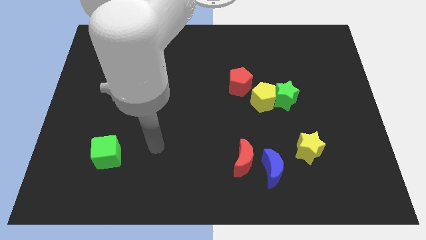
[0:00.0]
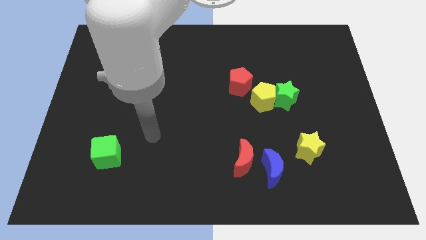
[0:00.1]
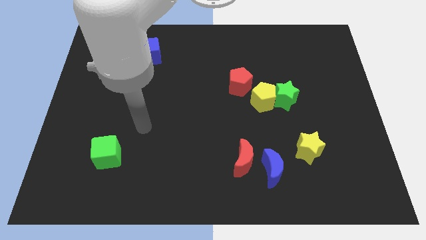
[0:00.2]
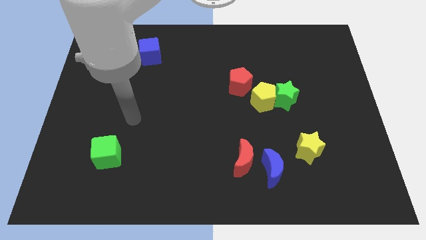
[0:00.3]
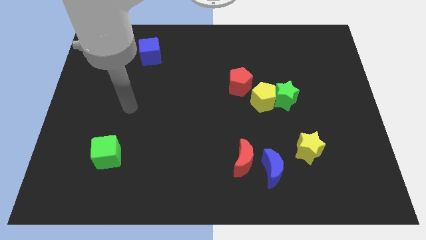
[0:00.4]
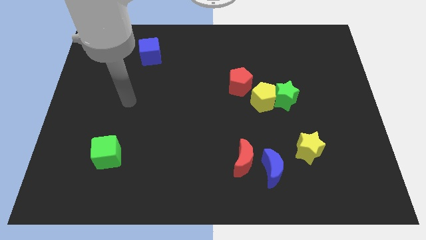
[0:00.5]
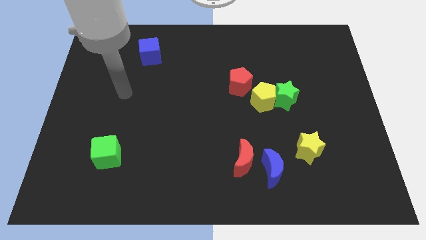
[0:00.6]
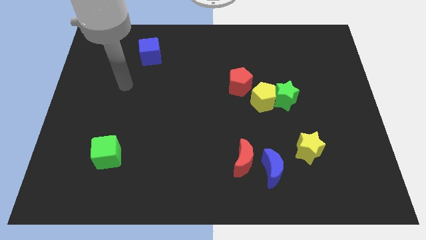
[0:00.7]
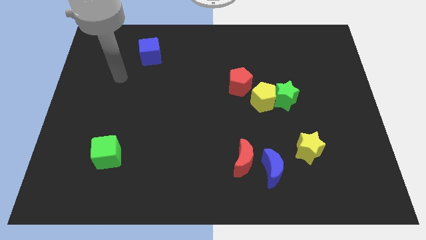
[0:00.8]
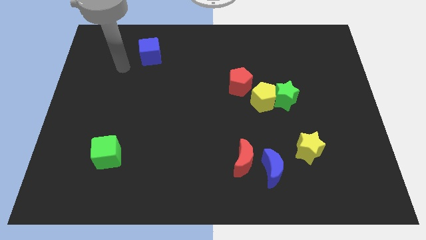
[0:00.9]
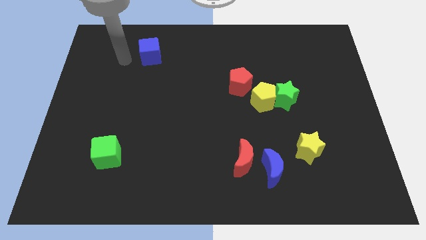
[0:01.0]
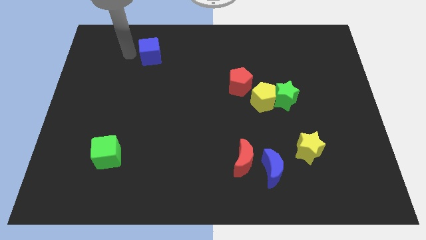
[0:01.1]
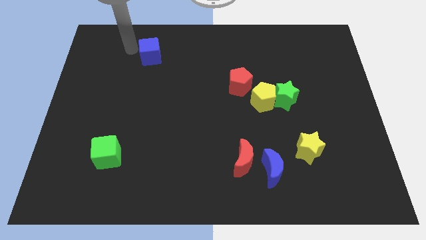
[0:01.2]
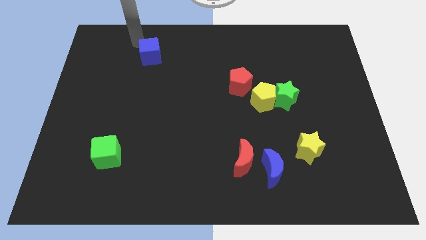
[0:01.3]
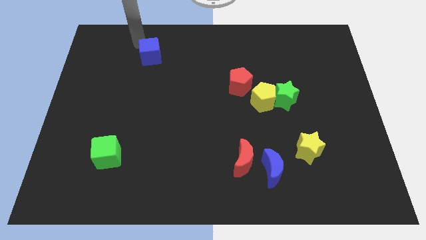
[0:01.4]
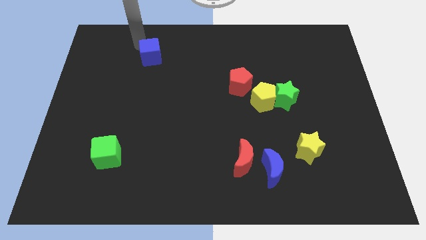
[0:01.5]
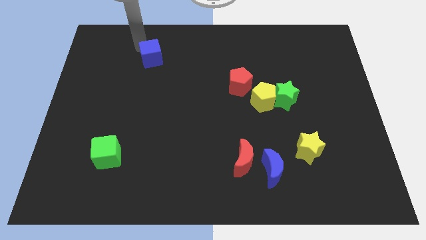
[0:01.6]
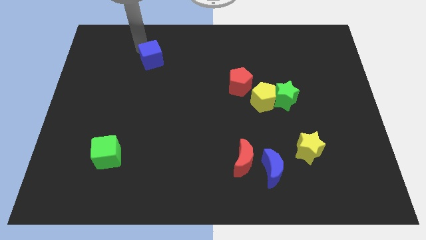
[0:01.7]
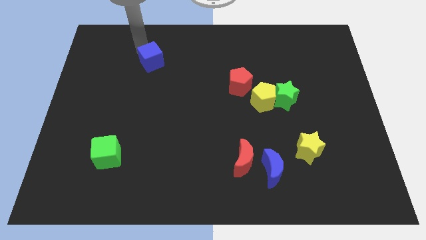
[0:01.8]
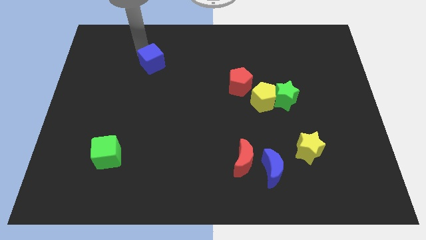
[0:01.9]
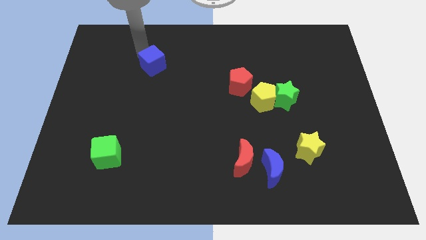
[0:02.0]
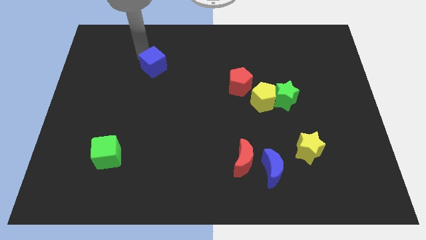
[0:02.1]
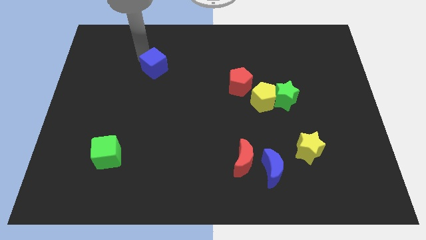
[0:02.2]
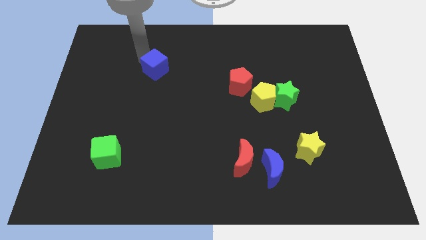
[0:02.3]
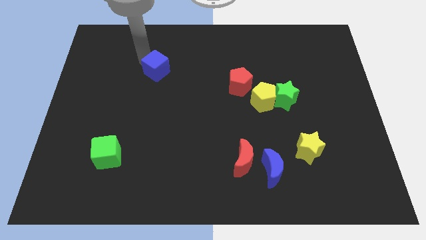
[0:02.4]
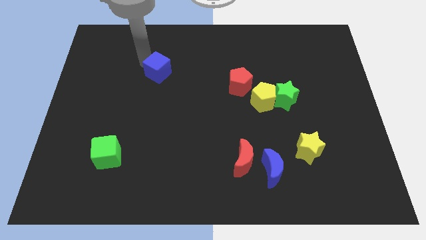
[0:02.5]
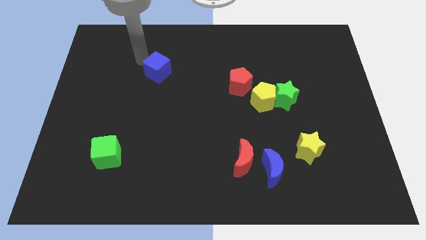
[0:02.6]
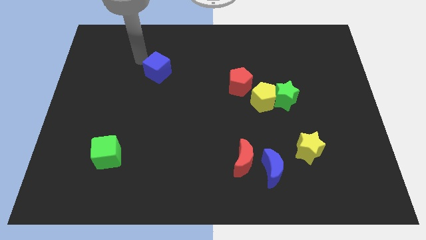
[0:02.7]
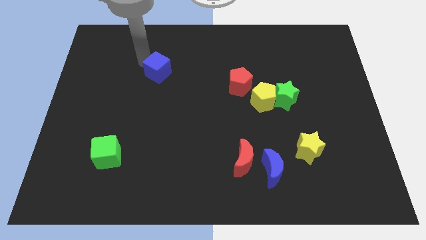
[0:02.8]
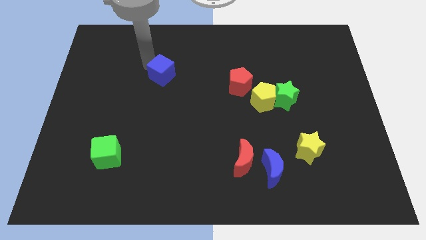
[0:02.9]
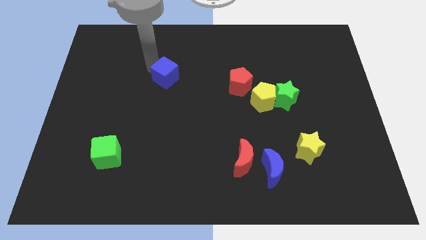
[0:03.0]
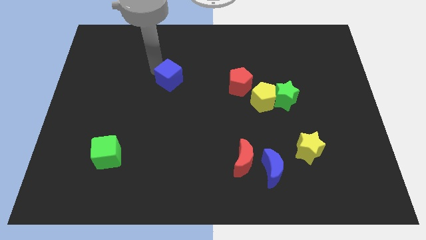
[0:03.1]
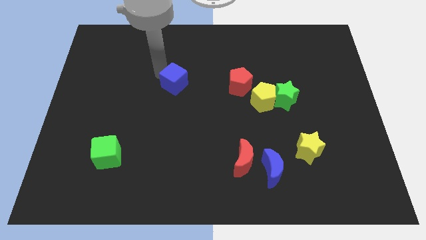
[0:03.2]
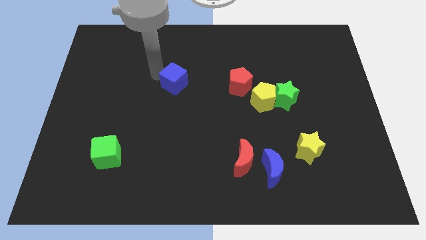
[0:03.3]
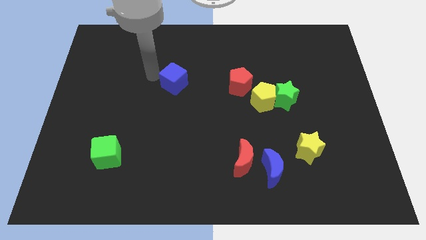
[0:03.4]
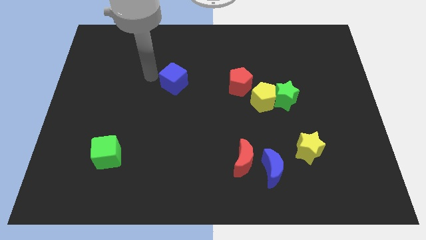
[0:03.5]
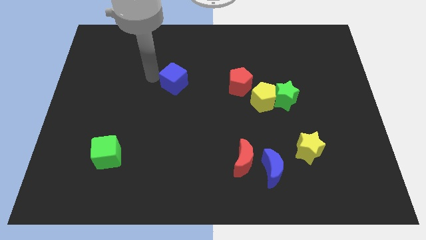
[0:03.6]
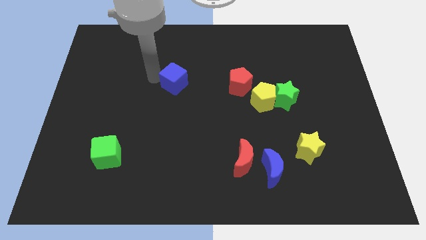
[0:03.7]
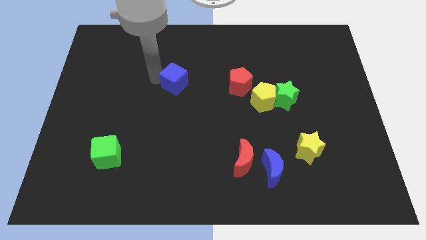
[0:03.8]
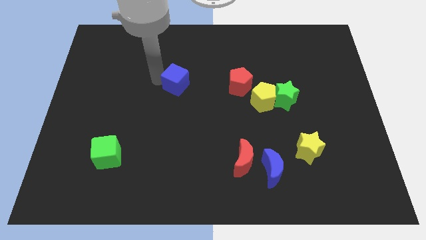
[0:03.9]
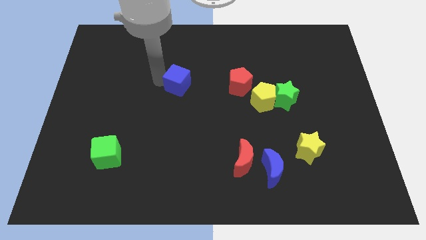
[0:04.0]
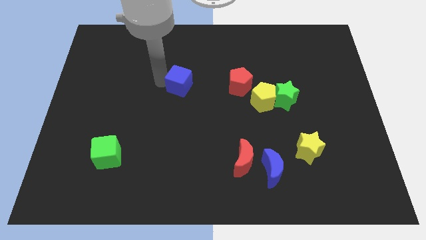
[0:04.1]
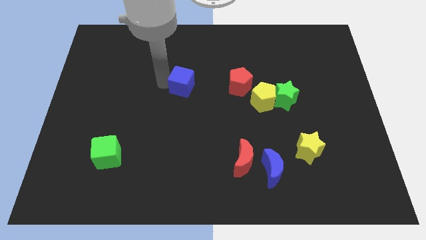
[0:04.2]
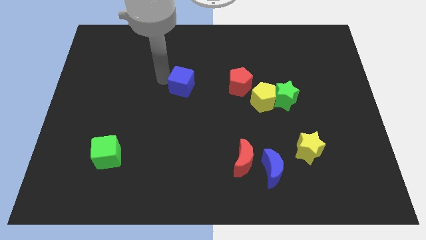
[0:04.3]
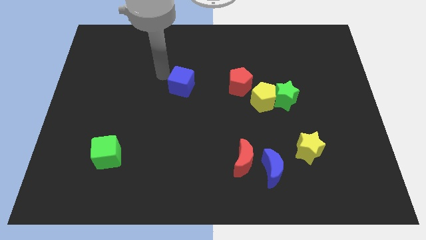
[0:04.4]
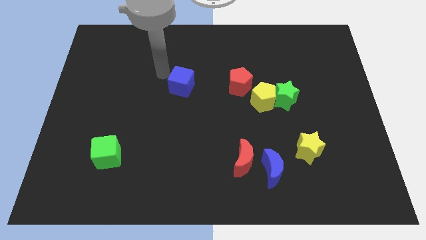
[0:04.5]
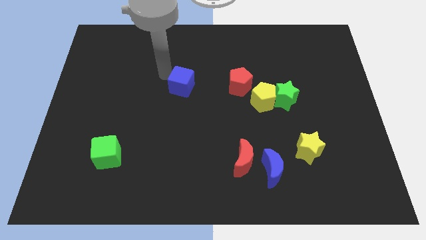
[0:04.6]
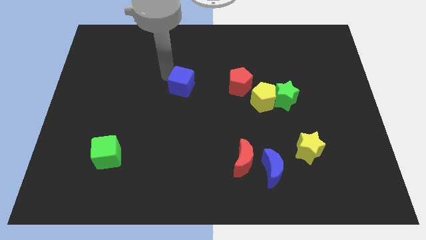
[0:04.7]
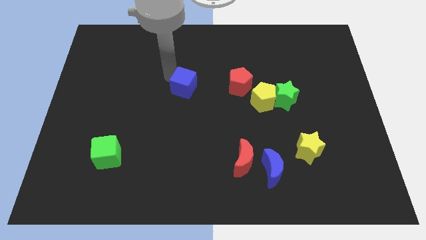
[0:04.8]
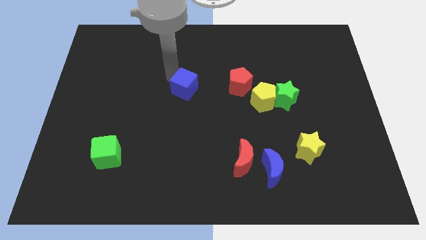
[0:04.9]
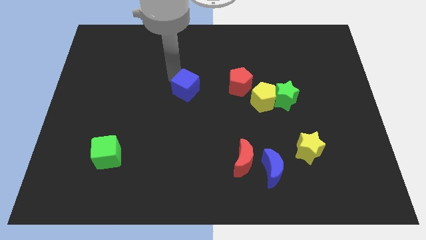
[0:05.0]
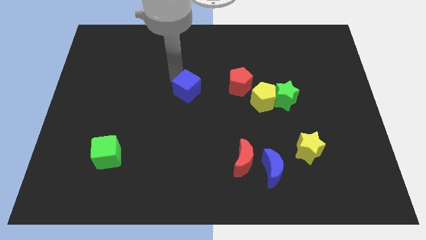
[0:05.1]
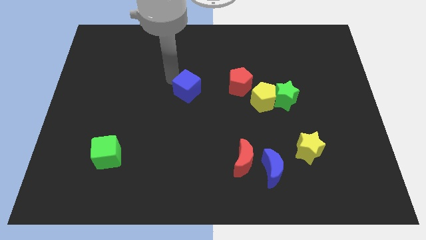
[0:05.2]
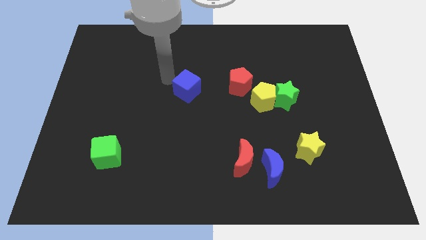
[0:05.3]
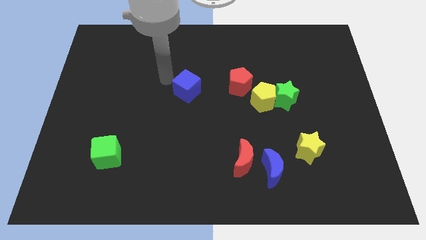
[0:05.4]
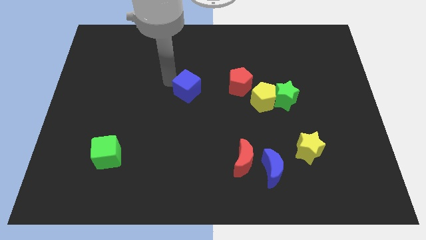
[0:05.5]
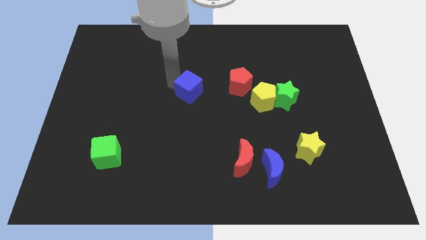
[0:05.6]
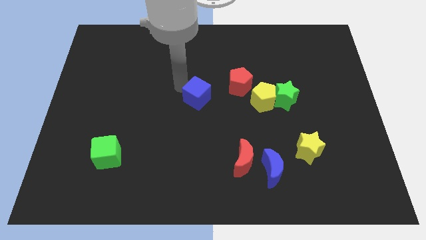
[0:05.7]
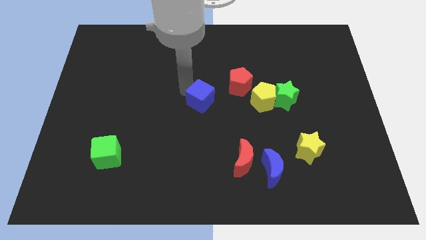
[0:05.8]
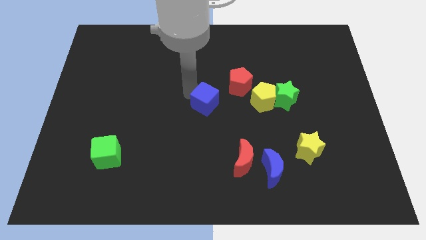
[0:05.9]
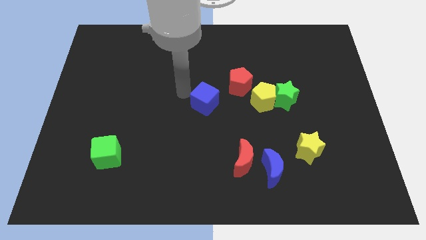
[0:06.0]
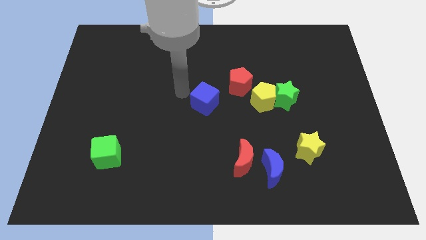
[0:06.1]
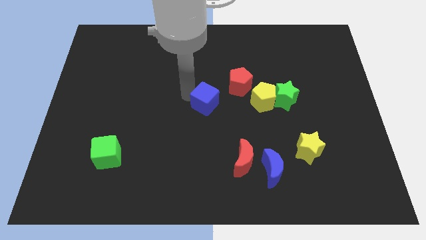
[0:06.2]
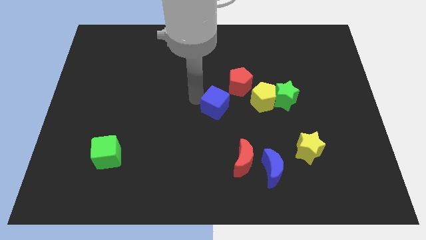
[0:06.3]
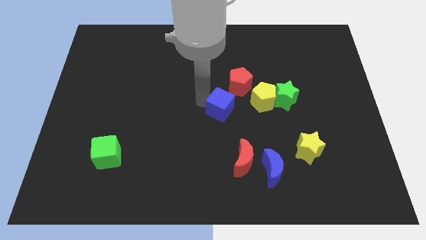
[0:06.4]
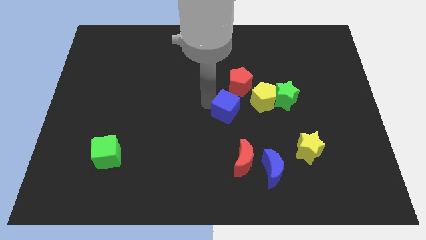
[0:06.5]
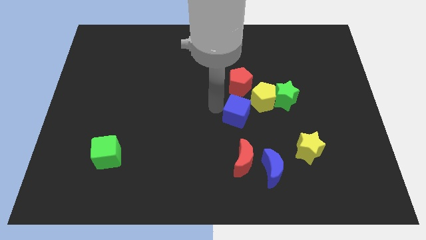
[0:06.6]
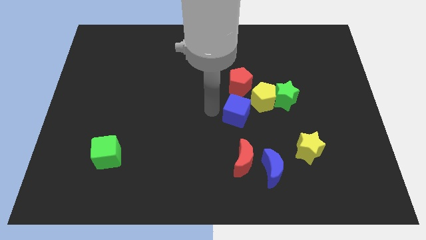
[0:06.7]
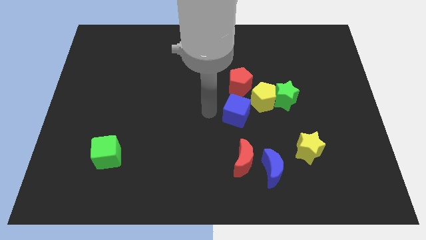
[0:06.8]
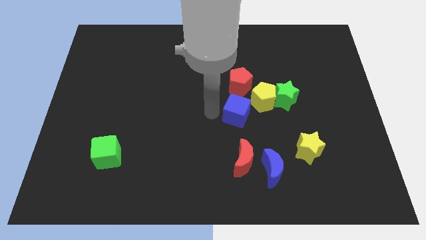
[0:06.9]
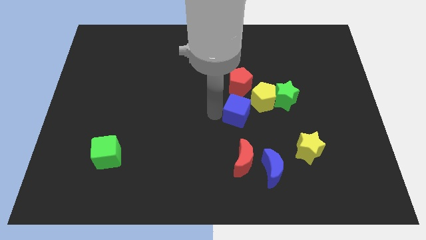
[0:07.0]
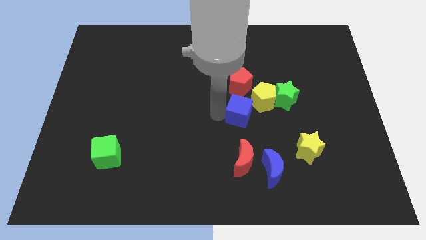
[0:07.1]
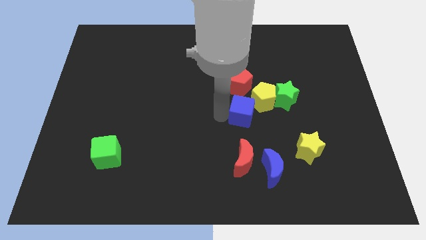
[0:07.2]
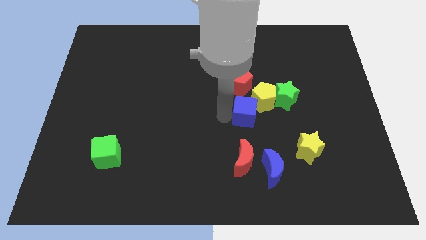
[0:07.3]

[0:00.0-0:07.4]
slide the blue cube to the bottom left side of the green star
